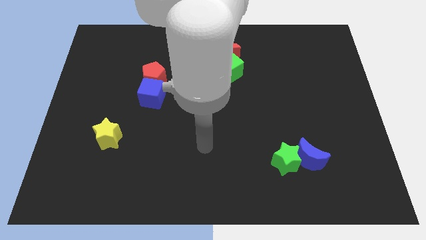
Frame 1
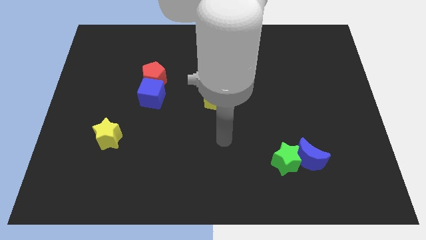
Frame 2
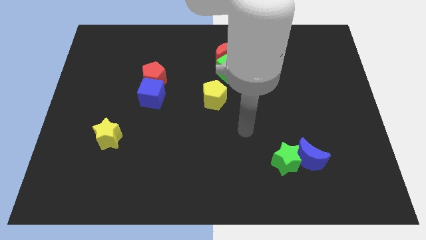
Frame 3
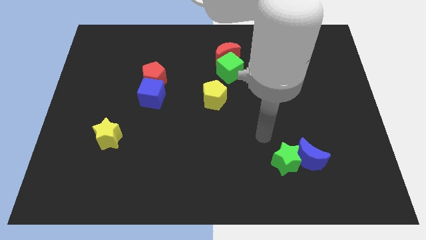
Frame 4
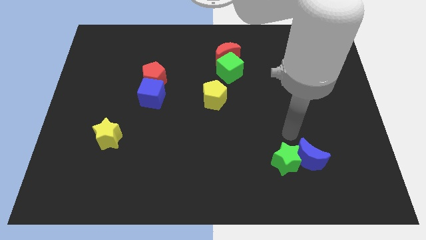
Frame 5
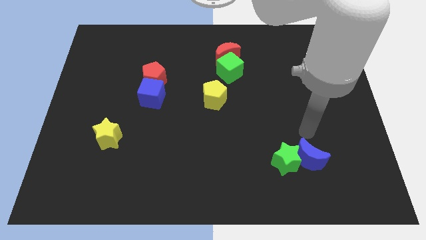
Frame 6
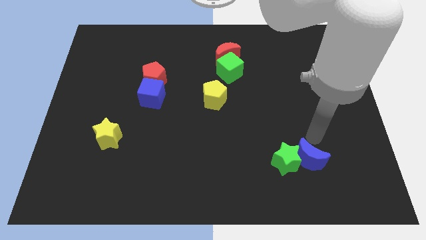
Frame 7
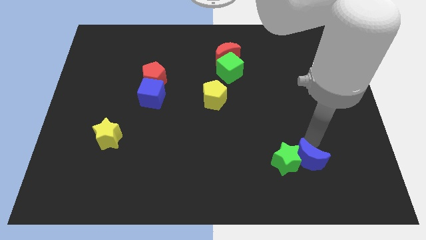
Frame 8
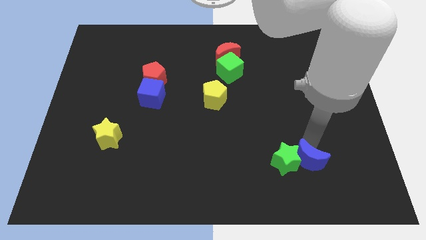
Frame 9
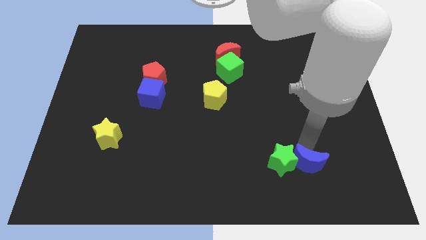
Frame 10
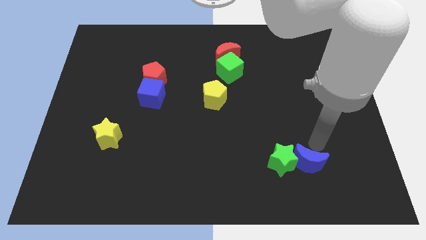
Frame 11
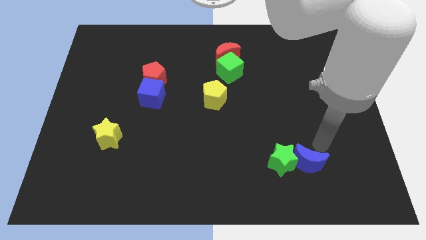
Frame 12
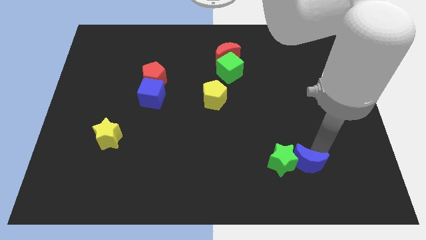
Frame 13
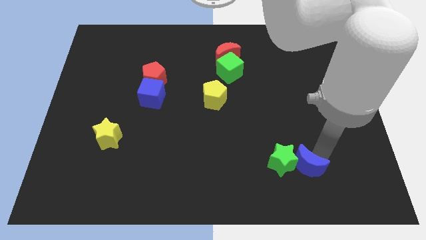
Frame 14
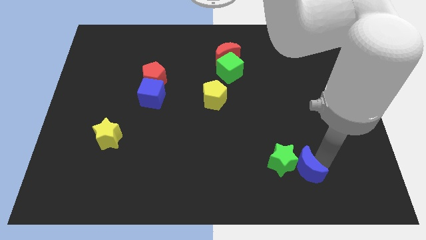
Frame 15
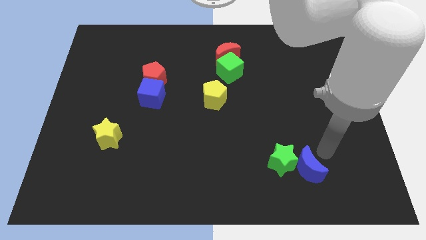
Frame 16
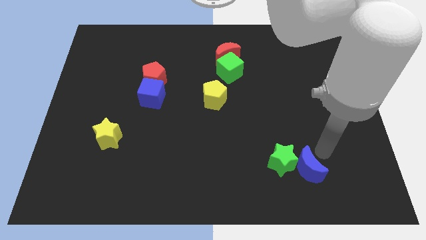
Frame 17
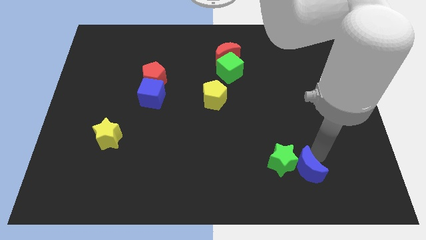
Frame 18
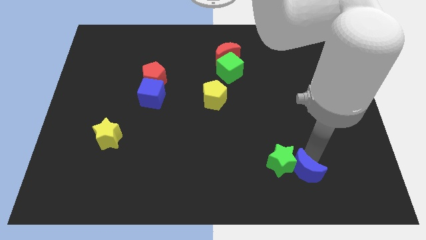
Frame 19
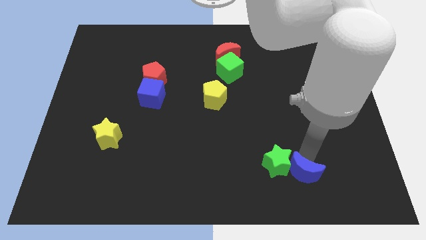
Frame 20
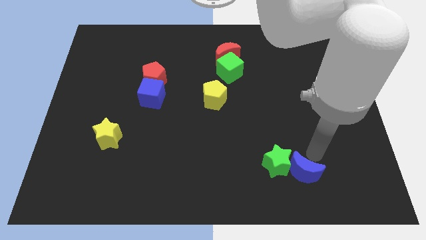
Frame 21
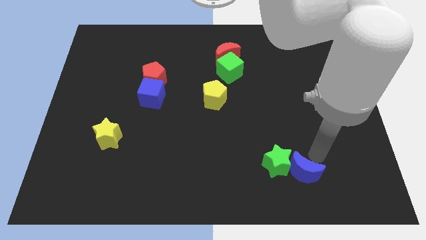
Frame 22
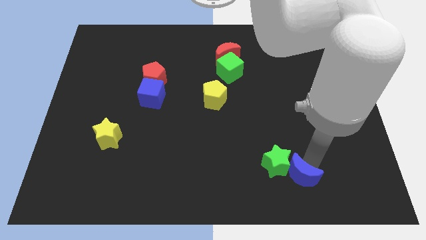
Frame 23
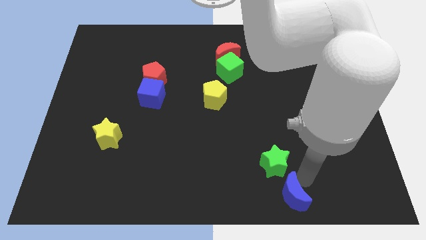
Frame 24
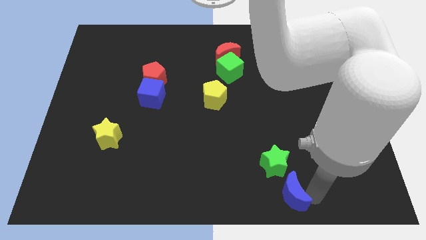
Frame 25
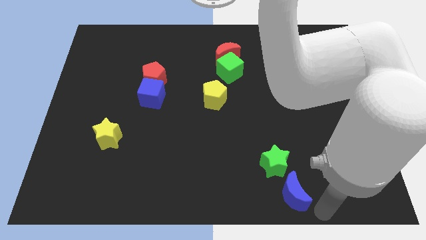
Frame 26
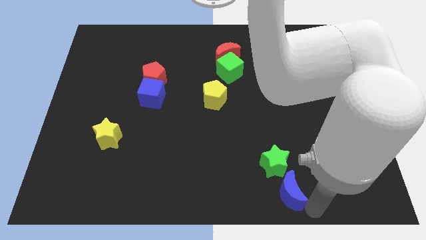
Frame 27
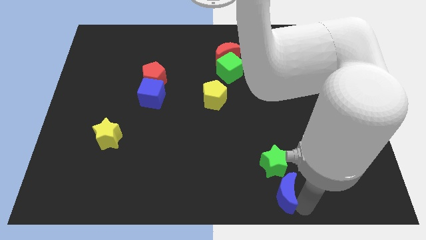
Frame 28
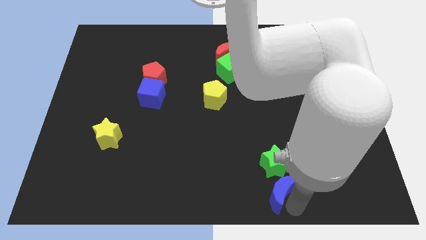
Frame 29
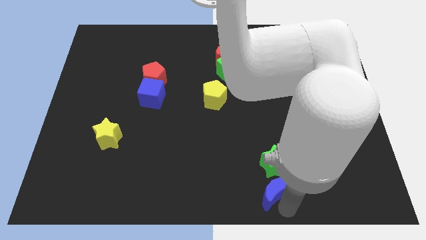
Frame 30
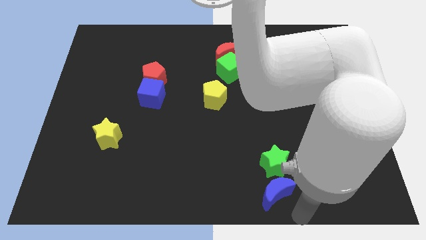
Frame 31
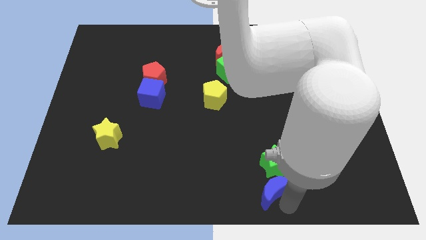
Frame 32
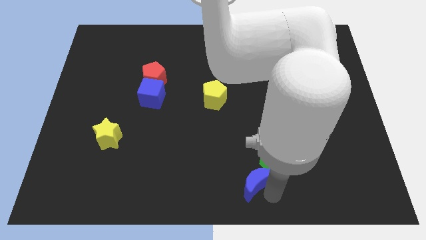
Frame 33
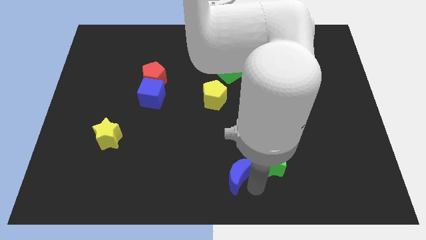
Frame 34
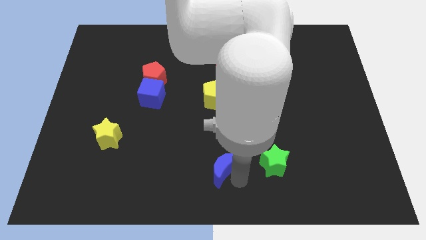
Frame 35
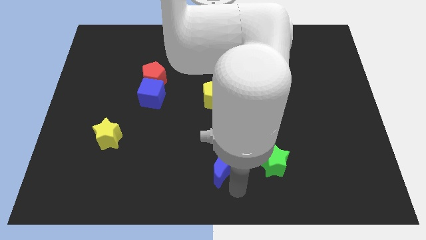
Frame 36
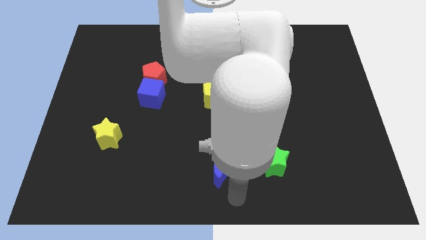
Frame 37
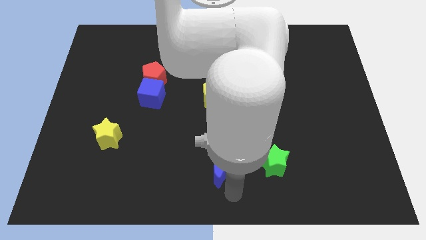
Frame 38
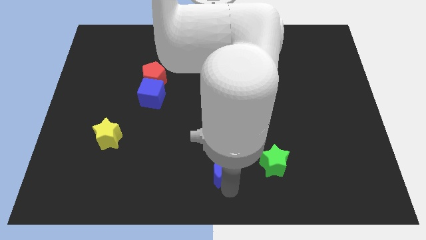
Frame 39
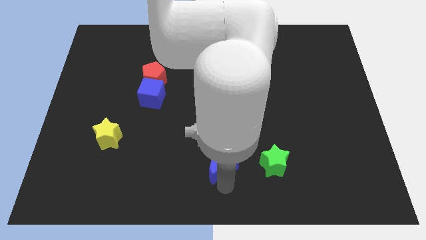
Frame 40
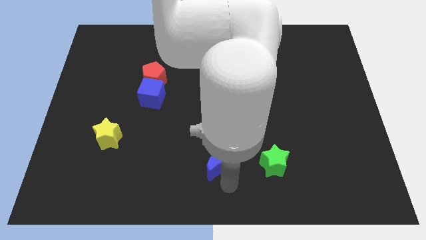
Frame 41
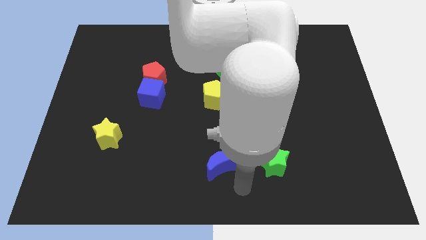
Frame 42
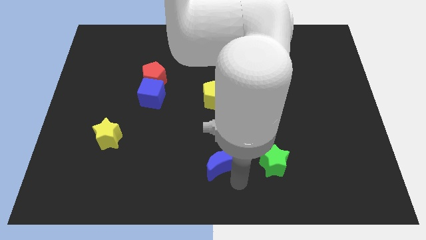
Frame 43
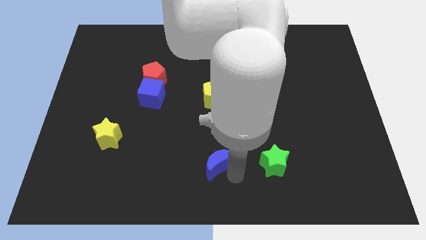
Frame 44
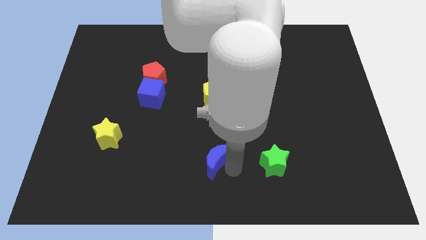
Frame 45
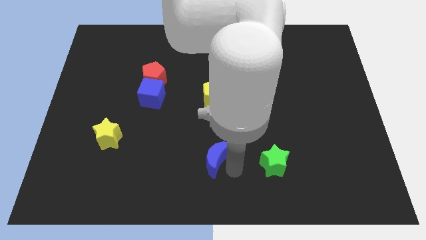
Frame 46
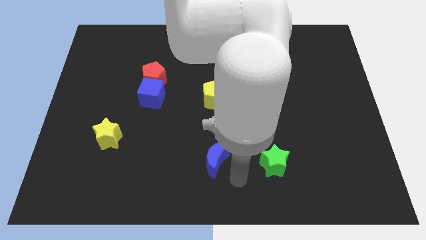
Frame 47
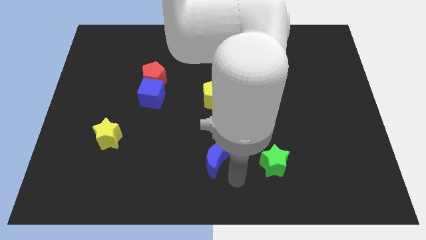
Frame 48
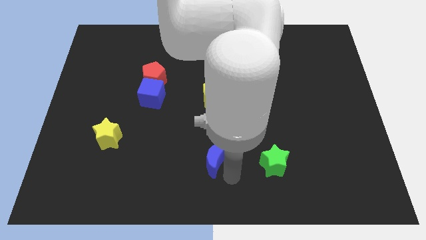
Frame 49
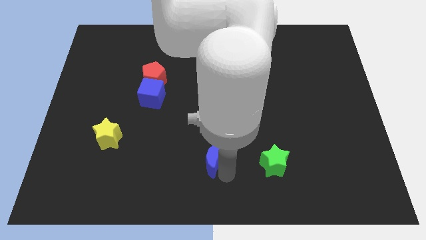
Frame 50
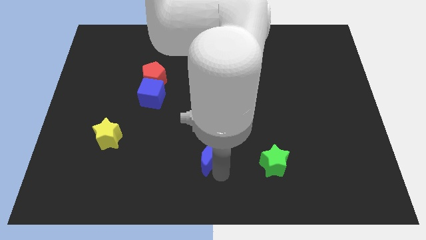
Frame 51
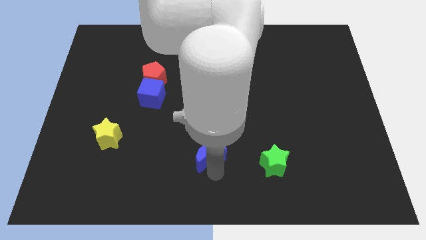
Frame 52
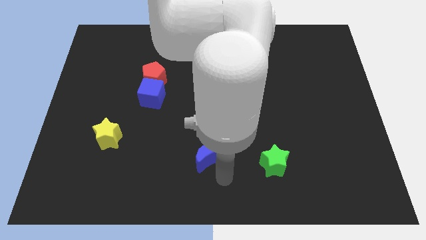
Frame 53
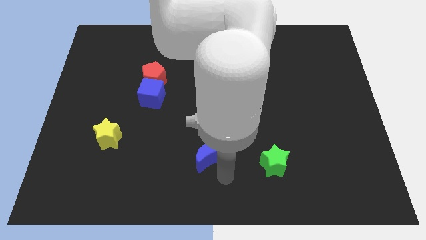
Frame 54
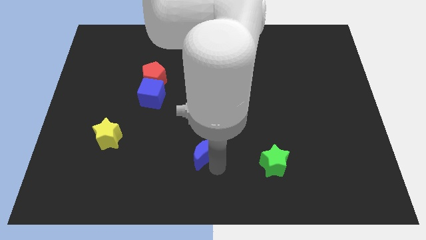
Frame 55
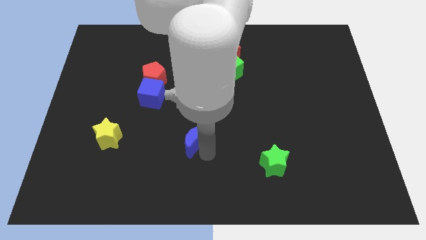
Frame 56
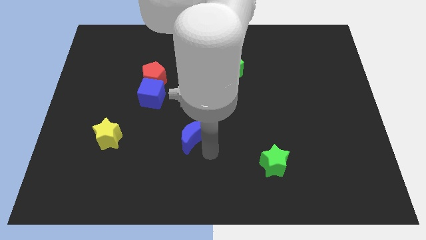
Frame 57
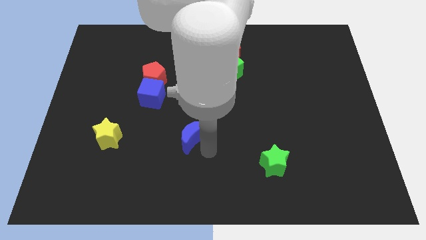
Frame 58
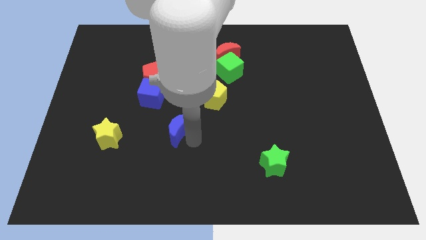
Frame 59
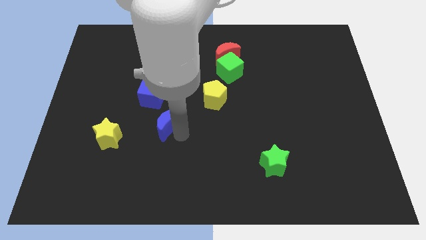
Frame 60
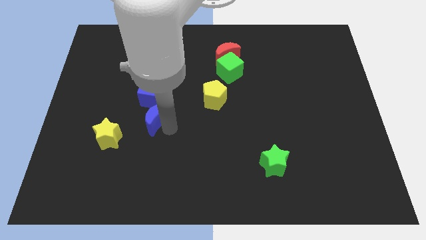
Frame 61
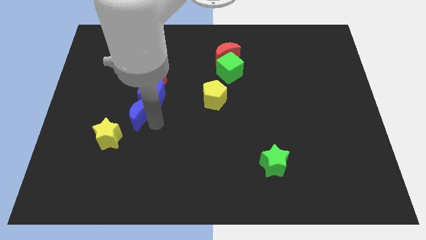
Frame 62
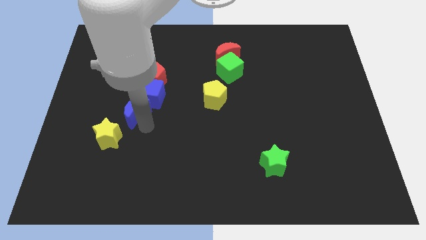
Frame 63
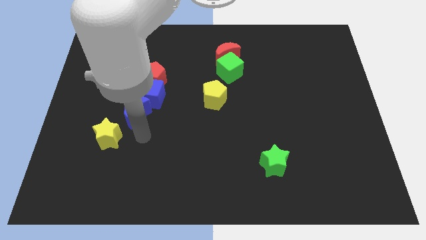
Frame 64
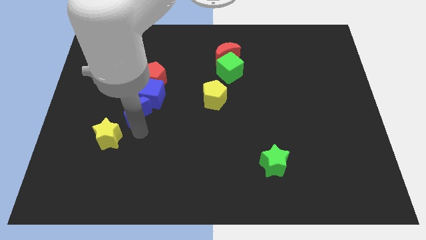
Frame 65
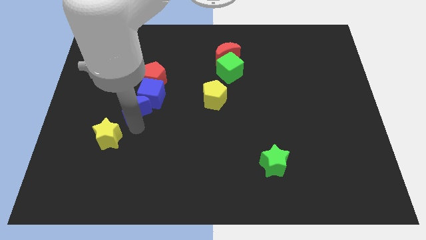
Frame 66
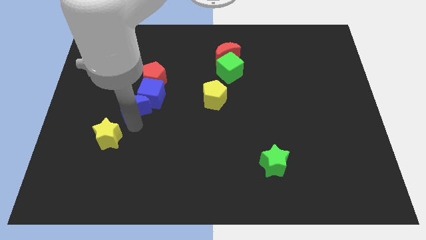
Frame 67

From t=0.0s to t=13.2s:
put the blue moon to the bottom left of the red pentagon
